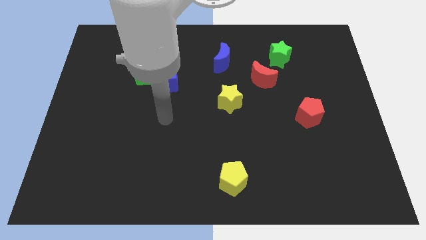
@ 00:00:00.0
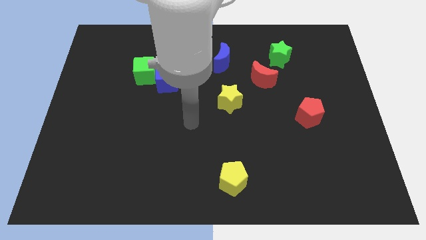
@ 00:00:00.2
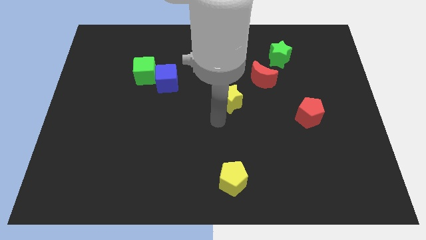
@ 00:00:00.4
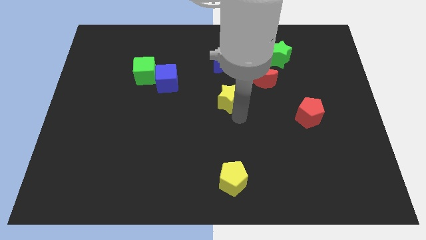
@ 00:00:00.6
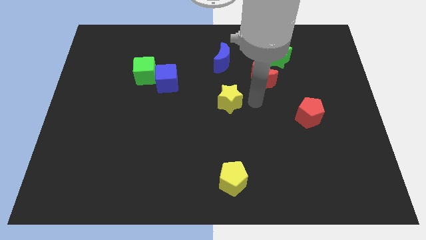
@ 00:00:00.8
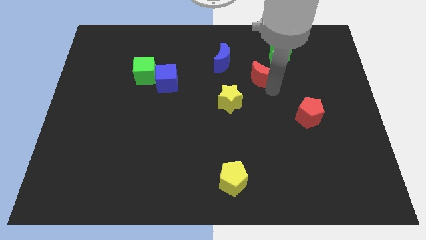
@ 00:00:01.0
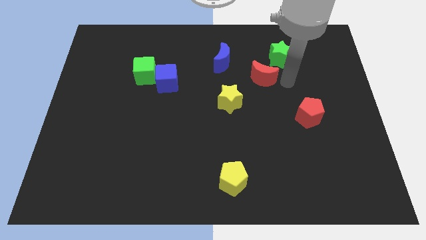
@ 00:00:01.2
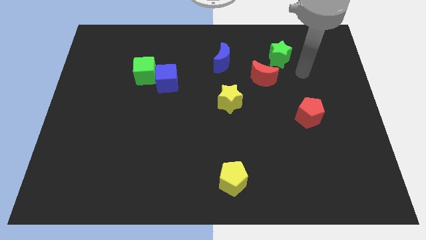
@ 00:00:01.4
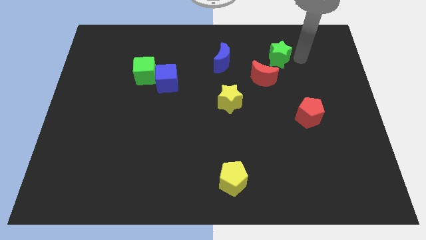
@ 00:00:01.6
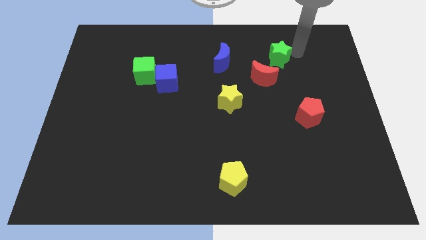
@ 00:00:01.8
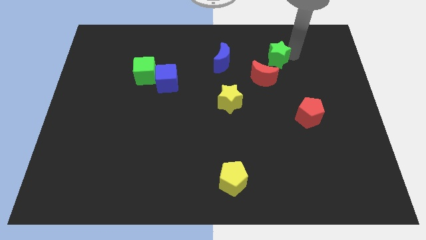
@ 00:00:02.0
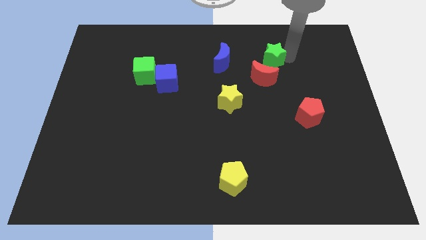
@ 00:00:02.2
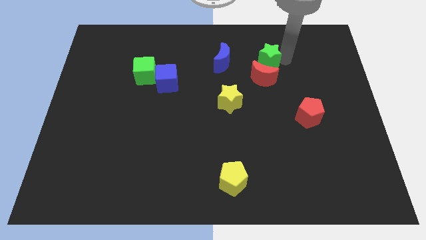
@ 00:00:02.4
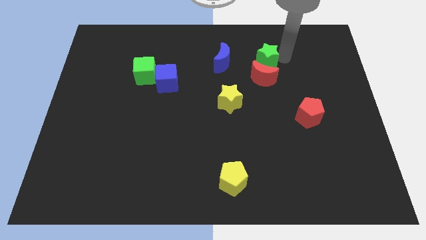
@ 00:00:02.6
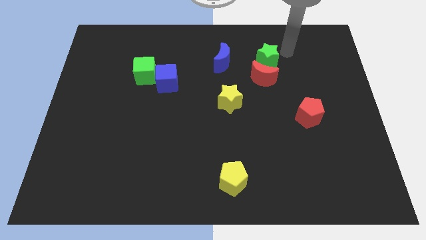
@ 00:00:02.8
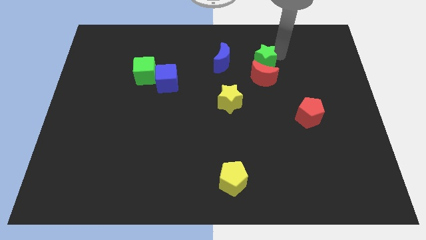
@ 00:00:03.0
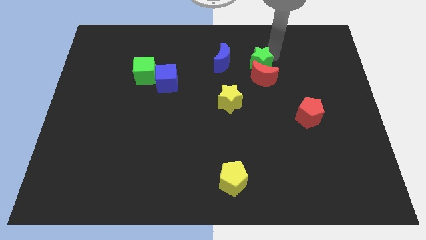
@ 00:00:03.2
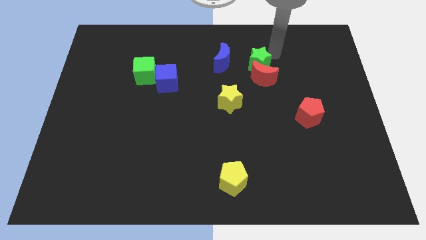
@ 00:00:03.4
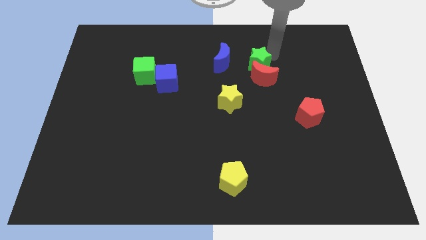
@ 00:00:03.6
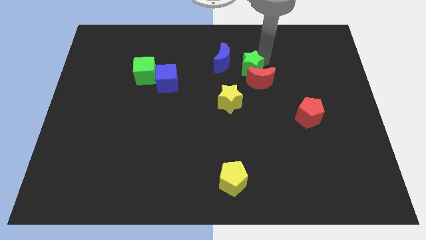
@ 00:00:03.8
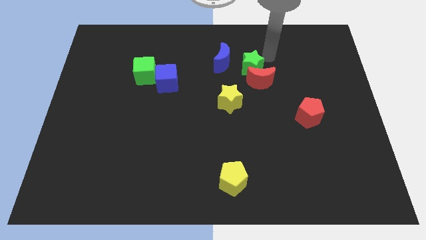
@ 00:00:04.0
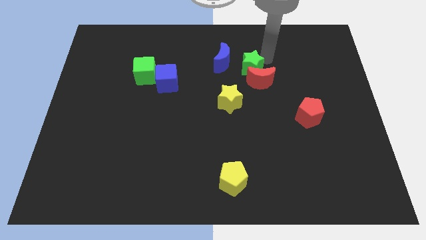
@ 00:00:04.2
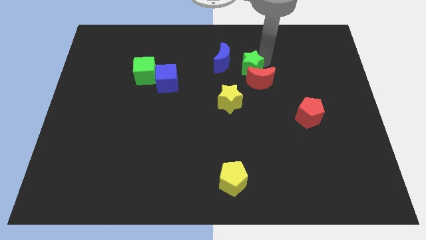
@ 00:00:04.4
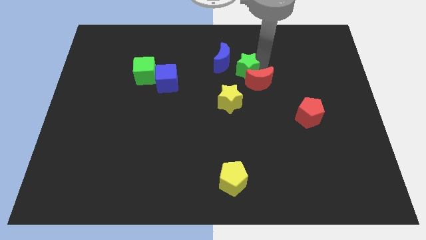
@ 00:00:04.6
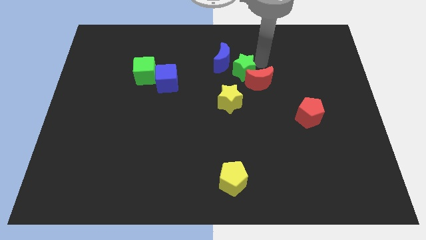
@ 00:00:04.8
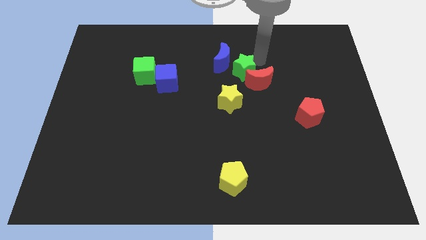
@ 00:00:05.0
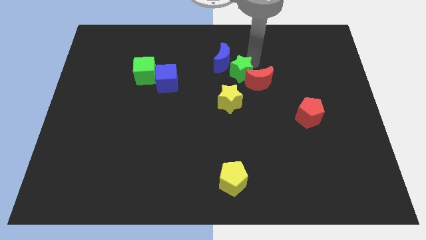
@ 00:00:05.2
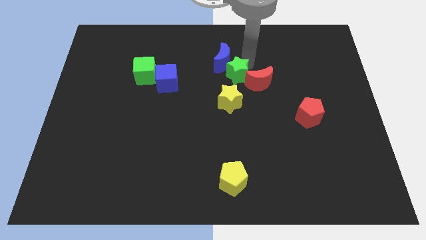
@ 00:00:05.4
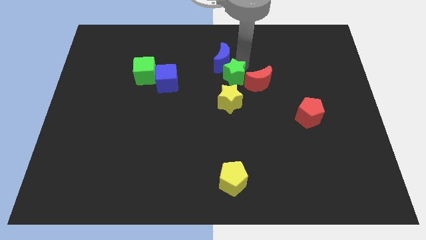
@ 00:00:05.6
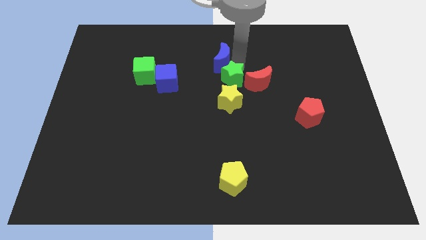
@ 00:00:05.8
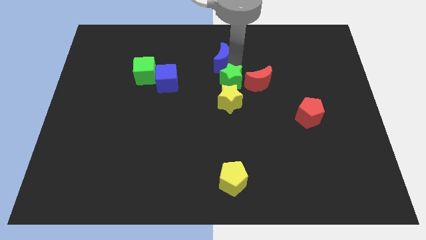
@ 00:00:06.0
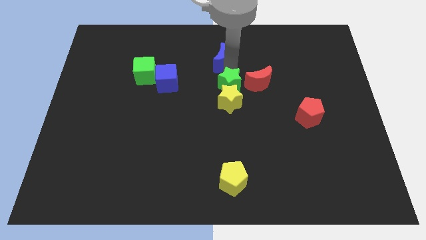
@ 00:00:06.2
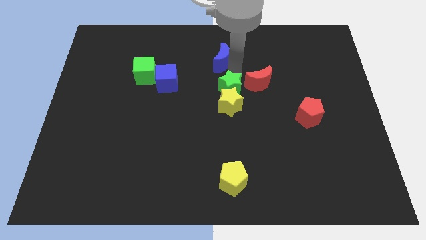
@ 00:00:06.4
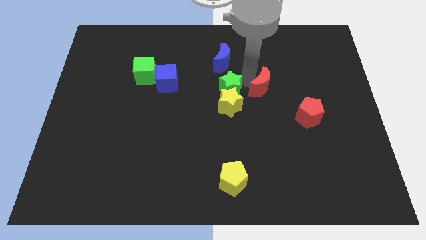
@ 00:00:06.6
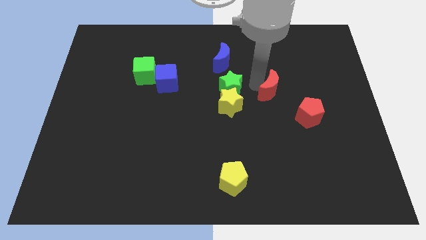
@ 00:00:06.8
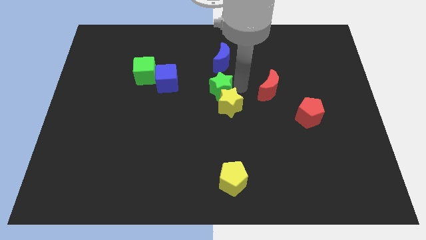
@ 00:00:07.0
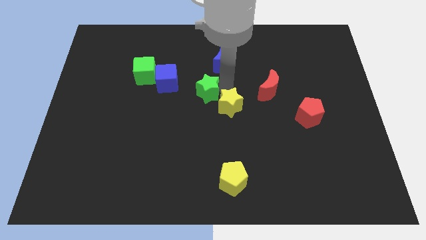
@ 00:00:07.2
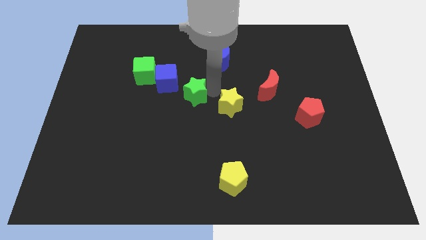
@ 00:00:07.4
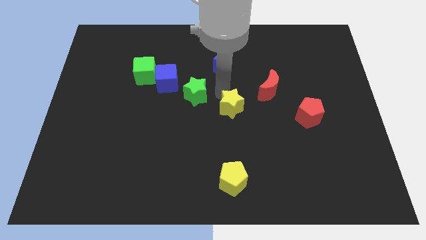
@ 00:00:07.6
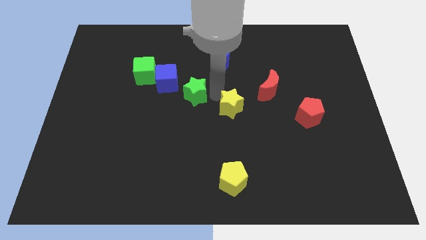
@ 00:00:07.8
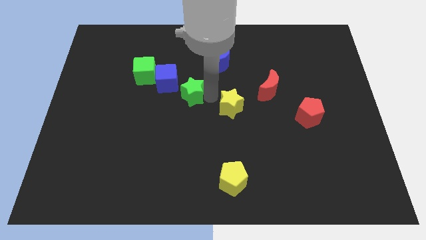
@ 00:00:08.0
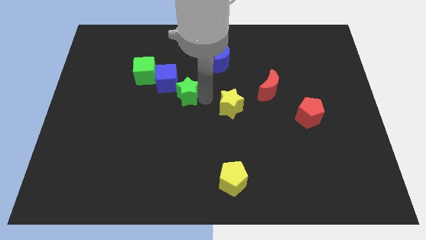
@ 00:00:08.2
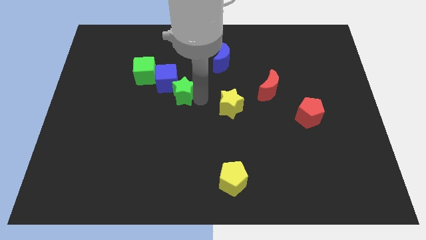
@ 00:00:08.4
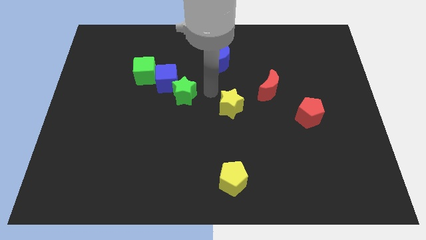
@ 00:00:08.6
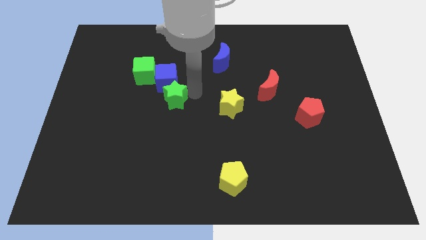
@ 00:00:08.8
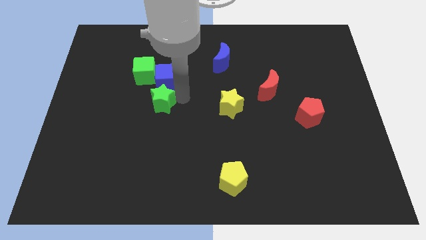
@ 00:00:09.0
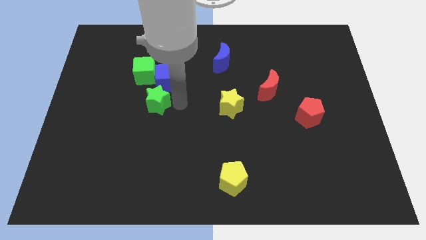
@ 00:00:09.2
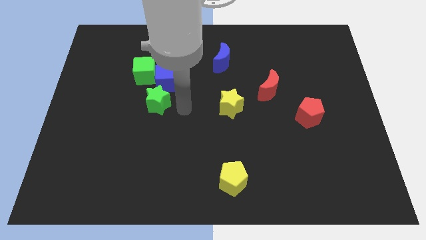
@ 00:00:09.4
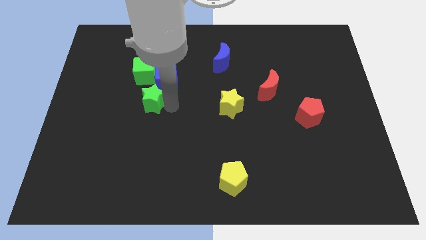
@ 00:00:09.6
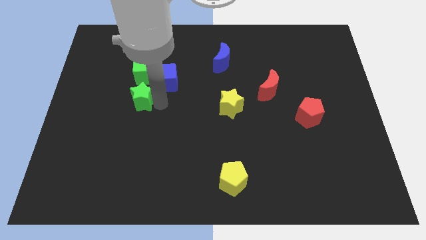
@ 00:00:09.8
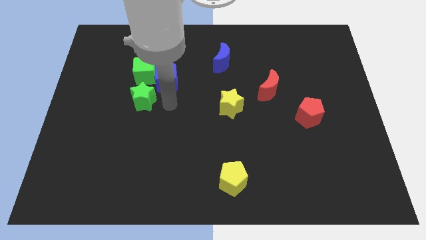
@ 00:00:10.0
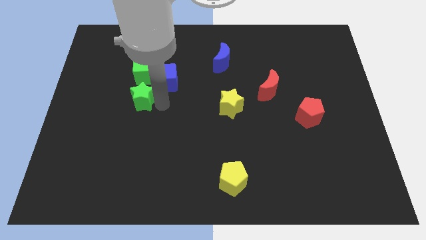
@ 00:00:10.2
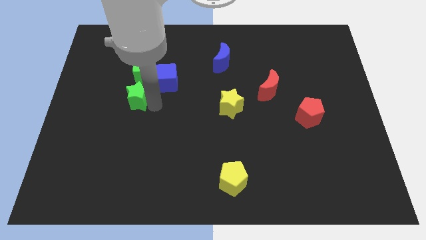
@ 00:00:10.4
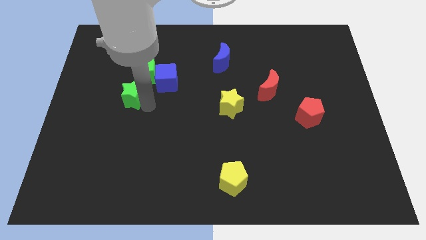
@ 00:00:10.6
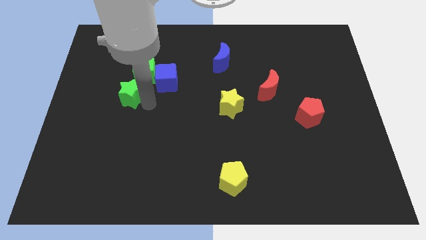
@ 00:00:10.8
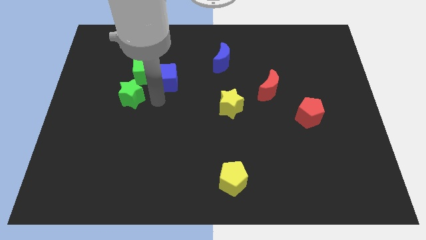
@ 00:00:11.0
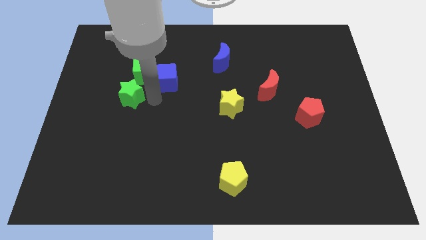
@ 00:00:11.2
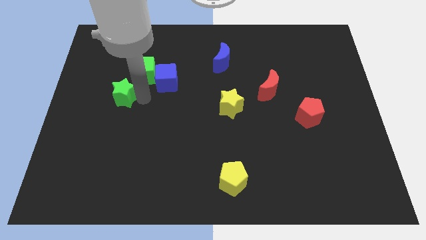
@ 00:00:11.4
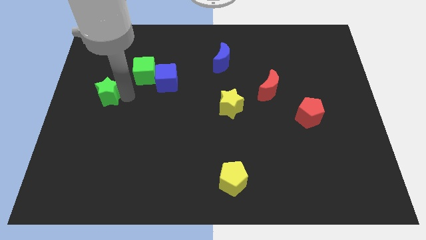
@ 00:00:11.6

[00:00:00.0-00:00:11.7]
slide the green star to the left side of the board
